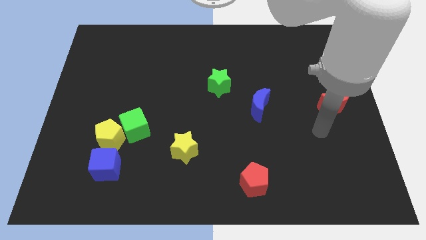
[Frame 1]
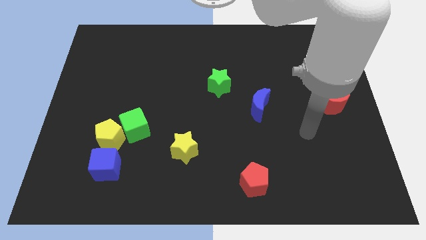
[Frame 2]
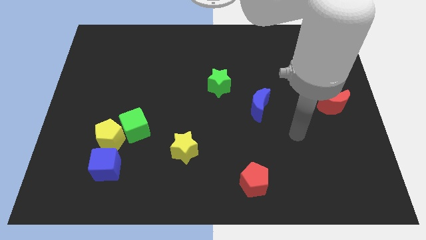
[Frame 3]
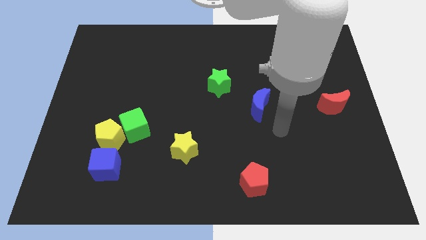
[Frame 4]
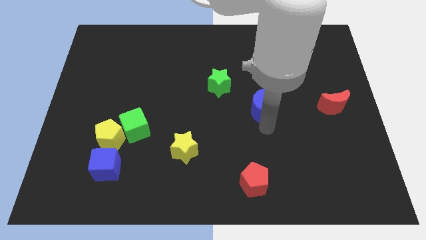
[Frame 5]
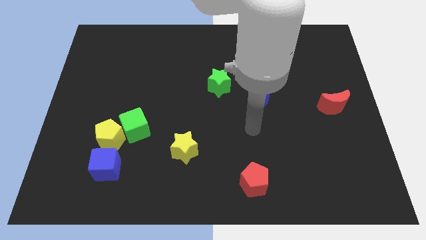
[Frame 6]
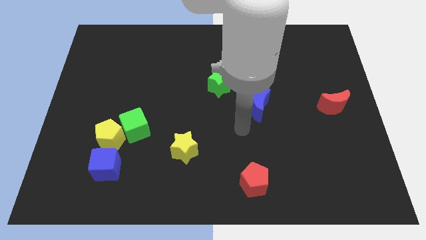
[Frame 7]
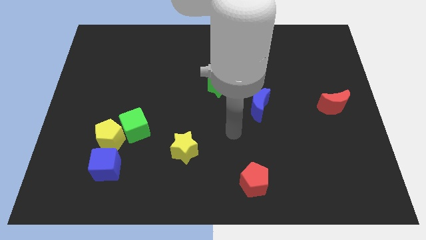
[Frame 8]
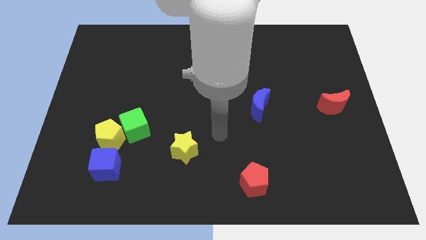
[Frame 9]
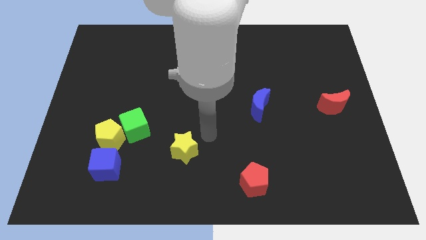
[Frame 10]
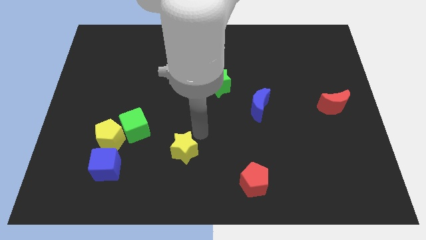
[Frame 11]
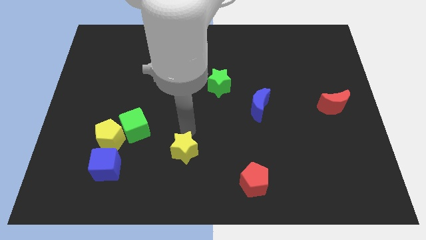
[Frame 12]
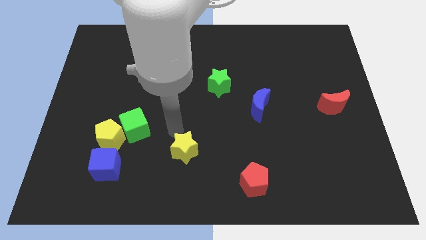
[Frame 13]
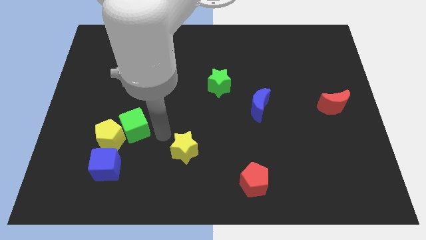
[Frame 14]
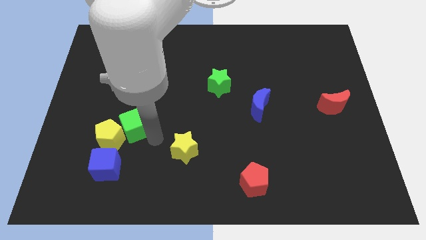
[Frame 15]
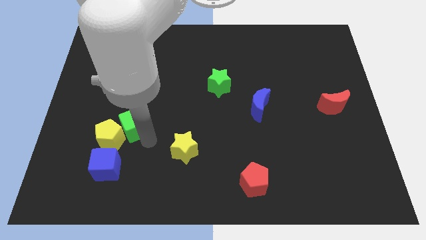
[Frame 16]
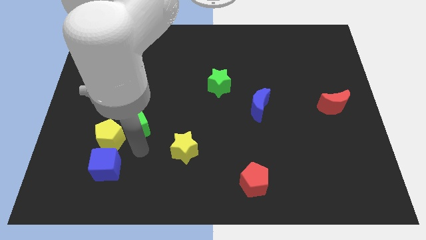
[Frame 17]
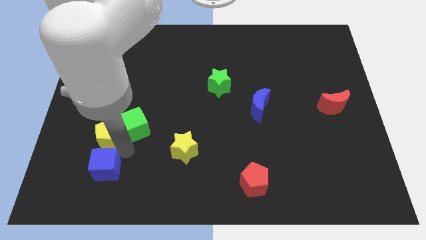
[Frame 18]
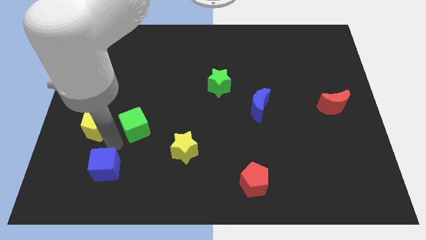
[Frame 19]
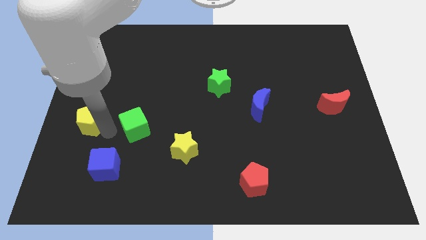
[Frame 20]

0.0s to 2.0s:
separate the green cube from the yellow pentagon

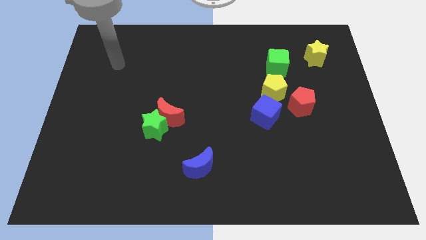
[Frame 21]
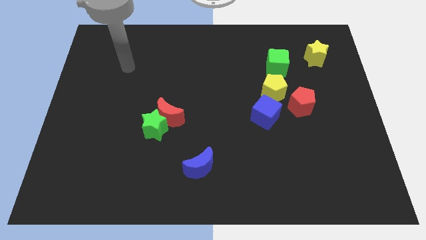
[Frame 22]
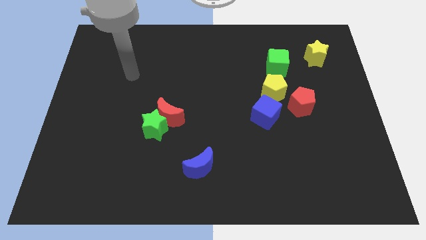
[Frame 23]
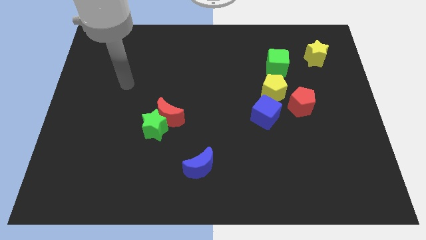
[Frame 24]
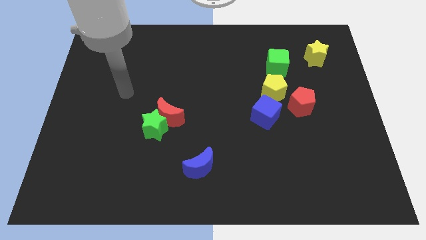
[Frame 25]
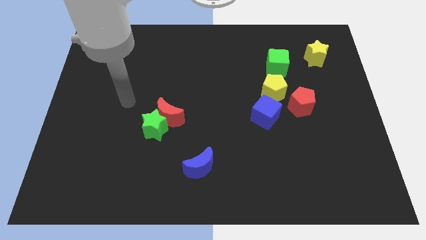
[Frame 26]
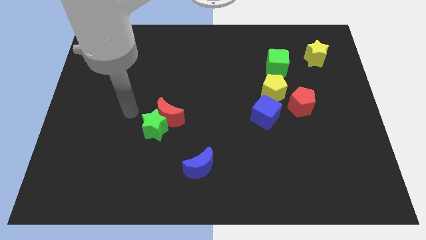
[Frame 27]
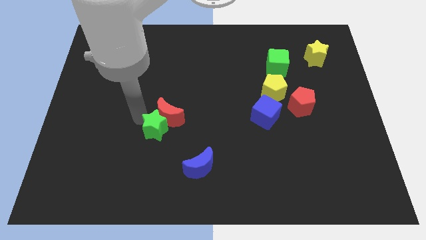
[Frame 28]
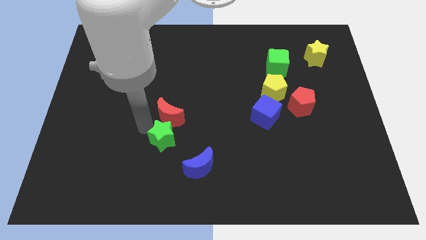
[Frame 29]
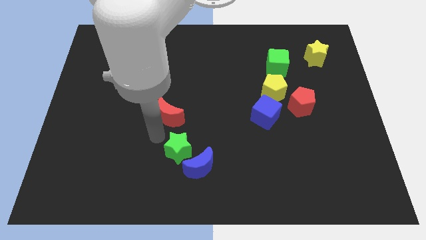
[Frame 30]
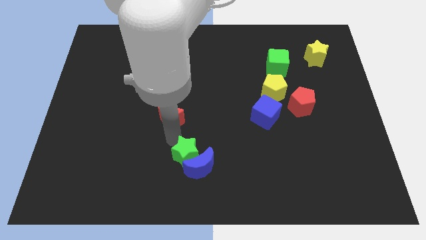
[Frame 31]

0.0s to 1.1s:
pull the red moon apart from the green star

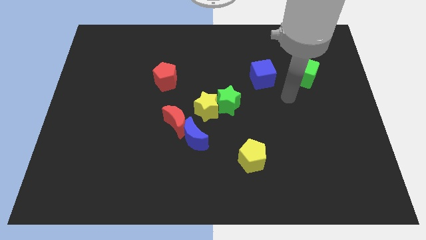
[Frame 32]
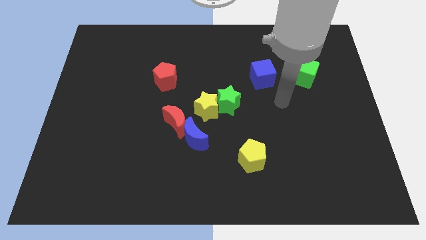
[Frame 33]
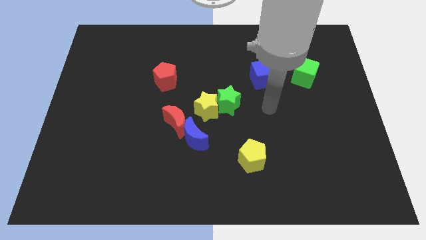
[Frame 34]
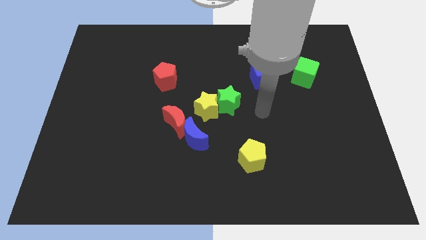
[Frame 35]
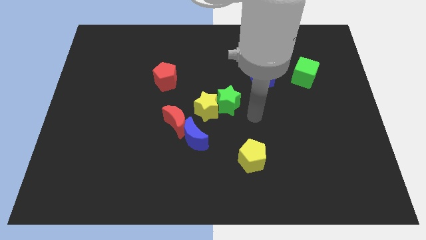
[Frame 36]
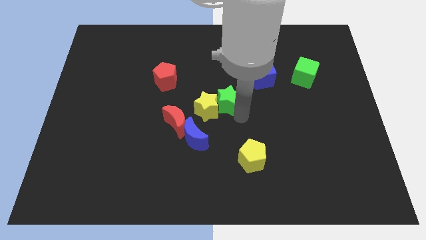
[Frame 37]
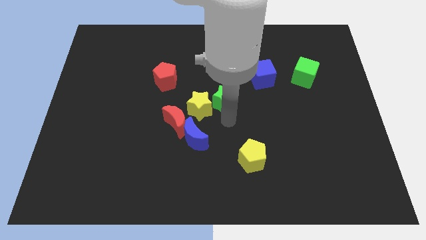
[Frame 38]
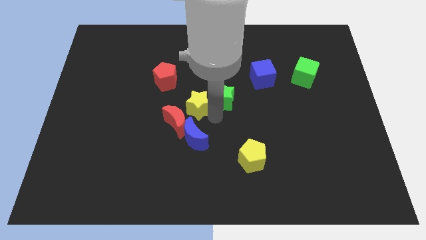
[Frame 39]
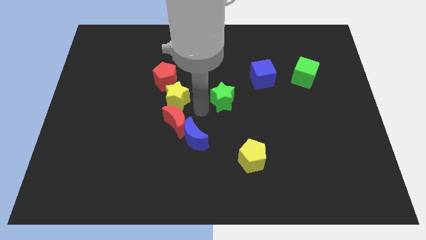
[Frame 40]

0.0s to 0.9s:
pull the green star apart from the yellow star

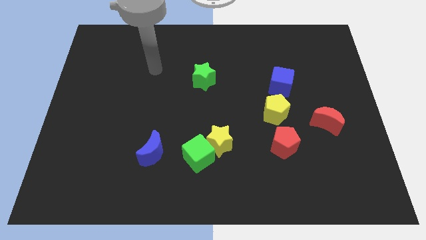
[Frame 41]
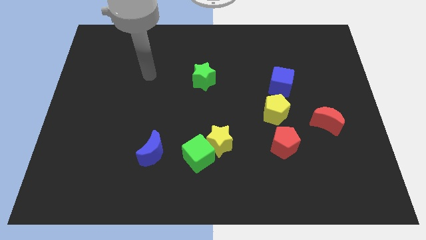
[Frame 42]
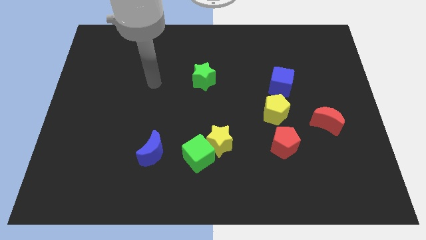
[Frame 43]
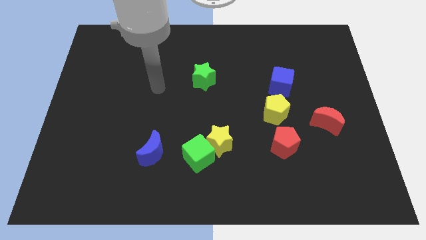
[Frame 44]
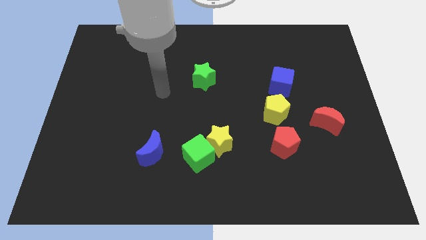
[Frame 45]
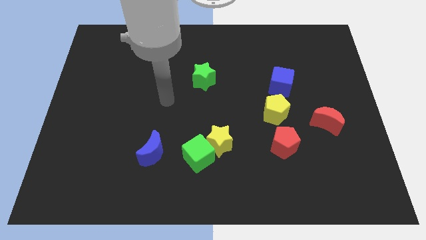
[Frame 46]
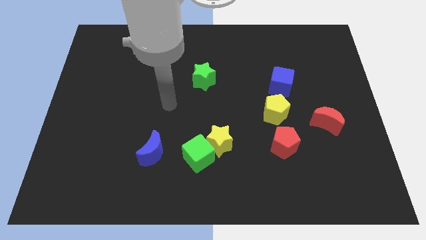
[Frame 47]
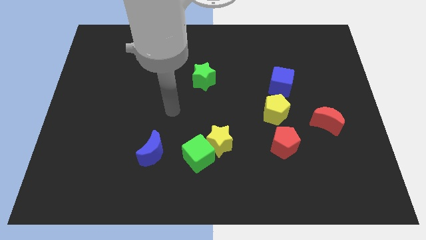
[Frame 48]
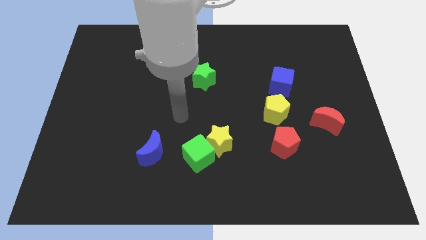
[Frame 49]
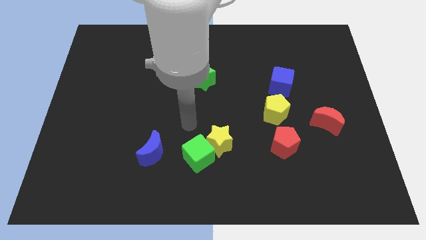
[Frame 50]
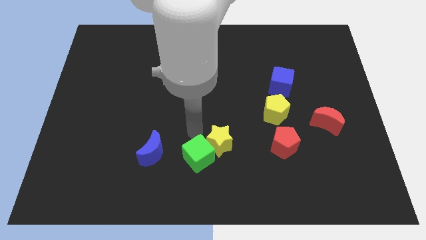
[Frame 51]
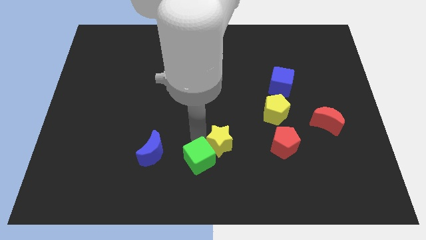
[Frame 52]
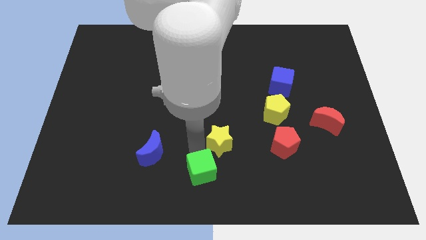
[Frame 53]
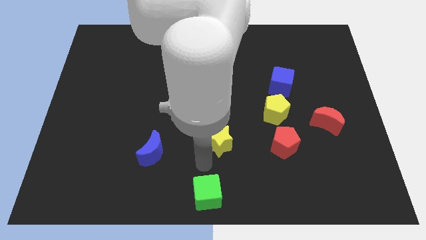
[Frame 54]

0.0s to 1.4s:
pull the yellow star apart from the green cube

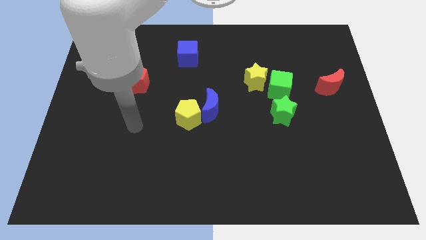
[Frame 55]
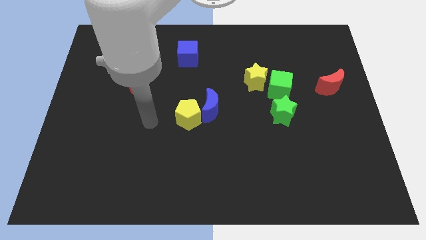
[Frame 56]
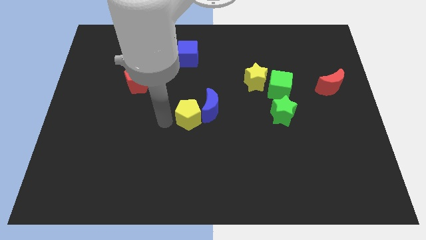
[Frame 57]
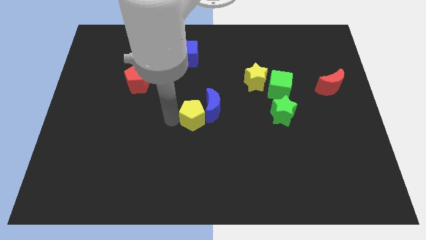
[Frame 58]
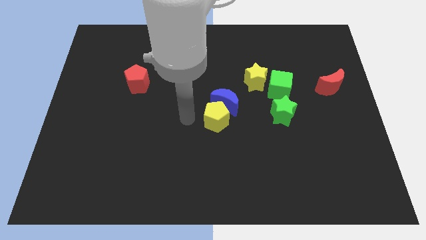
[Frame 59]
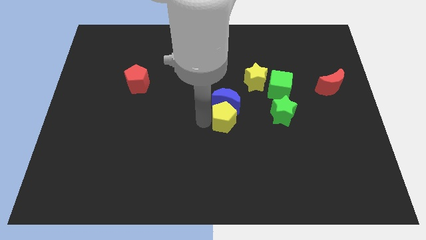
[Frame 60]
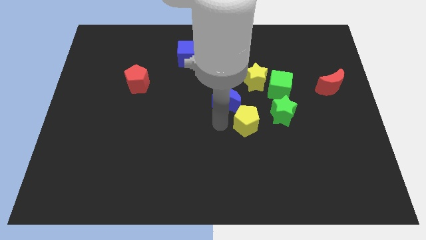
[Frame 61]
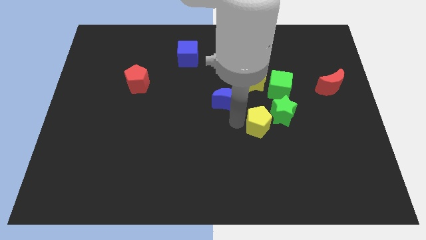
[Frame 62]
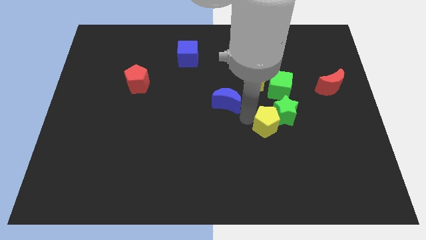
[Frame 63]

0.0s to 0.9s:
pull the blue moon apart from the yellow pentagon

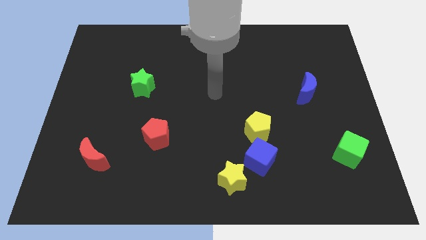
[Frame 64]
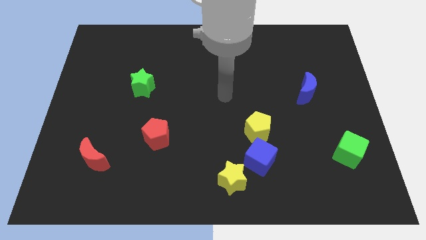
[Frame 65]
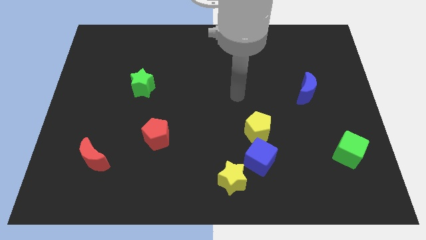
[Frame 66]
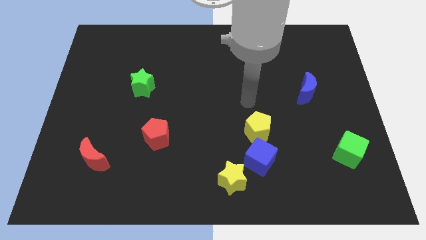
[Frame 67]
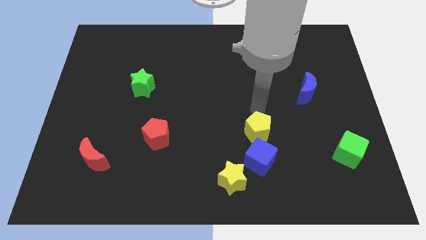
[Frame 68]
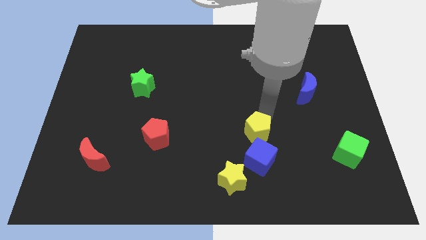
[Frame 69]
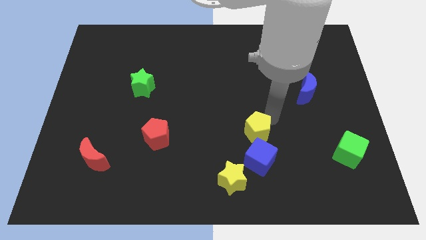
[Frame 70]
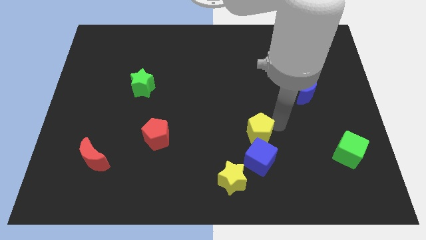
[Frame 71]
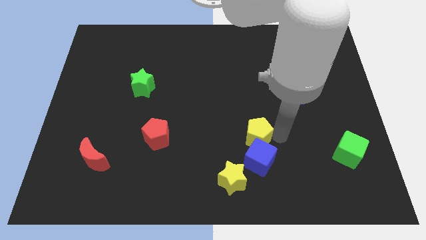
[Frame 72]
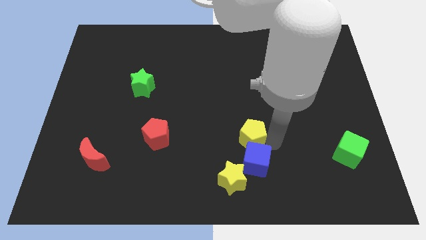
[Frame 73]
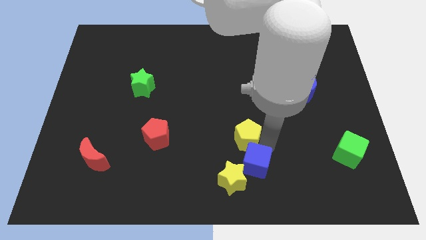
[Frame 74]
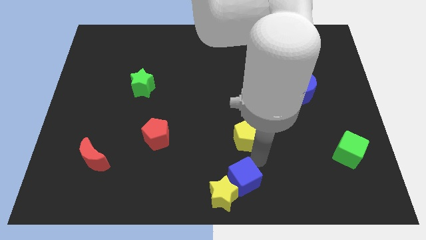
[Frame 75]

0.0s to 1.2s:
separate the yellow pentagon from the blue cube

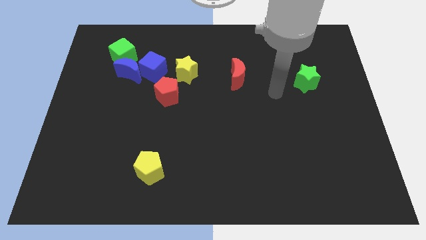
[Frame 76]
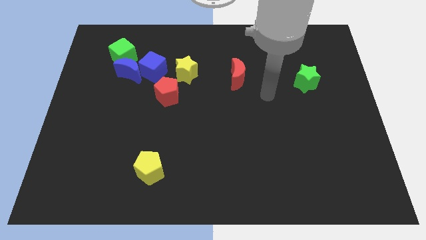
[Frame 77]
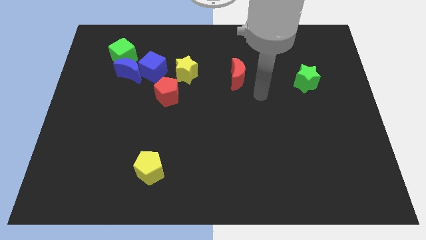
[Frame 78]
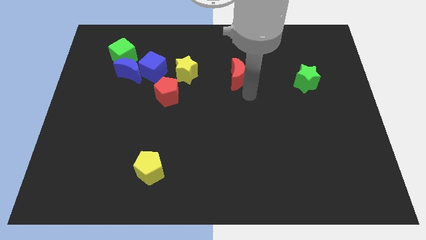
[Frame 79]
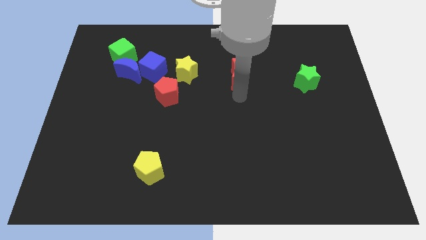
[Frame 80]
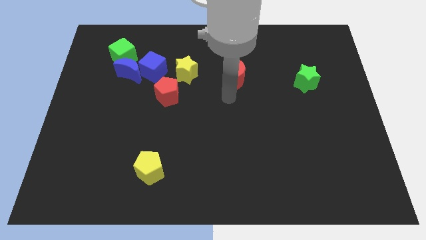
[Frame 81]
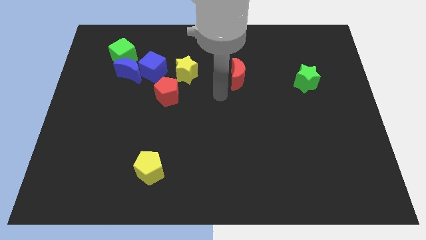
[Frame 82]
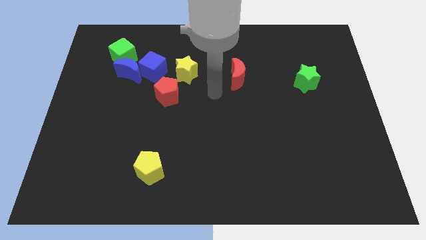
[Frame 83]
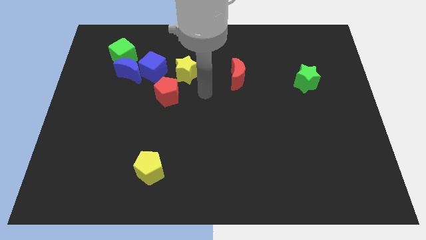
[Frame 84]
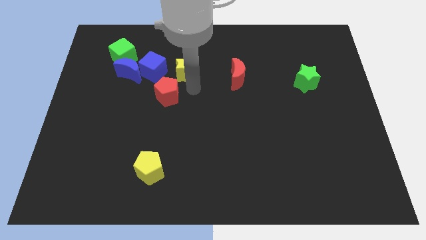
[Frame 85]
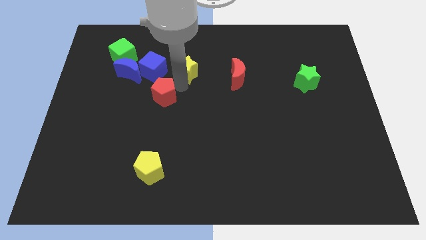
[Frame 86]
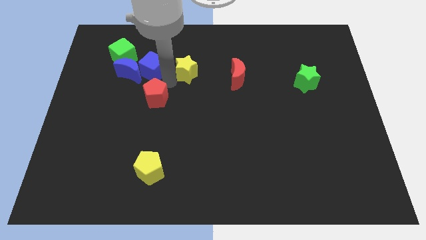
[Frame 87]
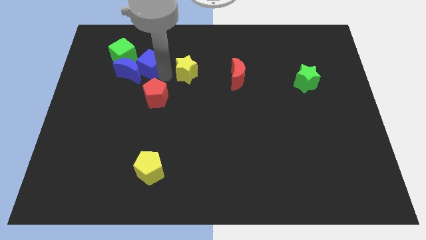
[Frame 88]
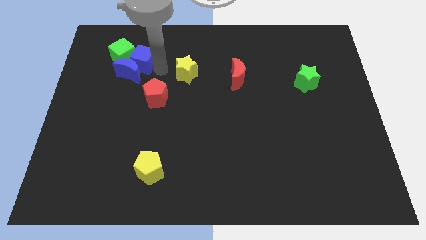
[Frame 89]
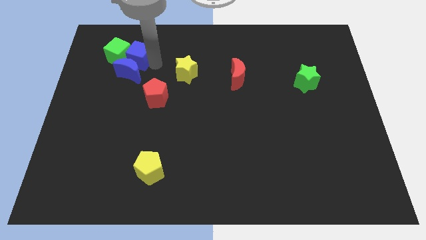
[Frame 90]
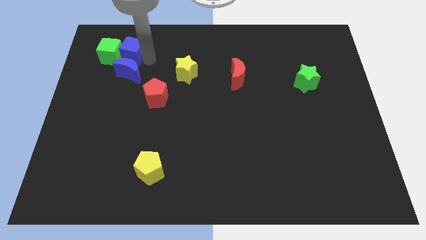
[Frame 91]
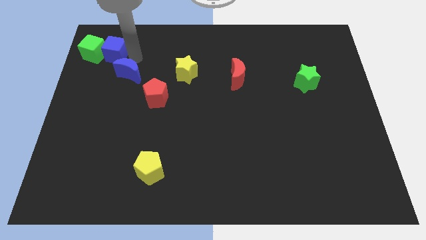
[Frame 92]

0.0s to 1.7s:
pull the blue moon apart from the blue cube and green cube
